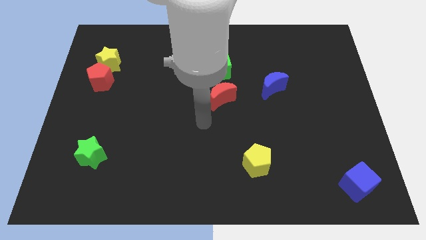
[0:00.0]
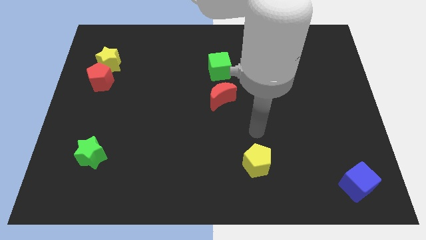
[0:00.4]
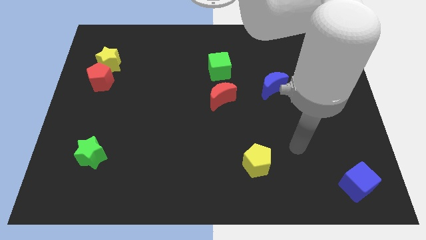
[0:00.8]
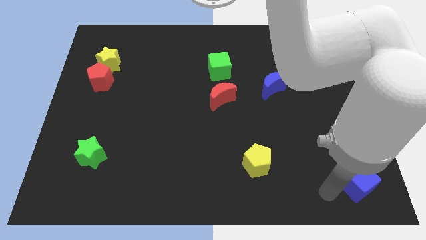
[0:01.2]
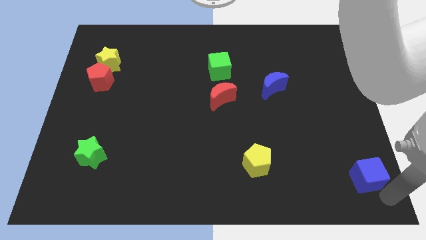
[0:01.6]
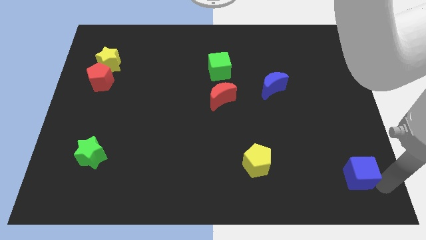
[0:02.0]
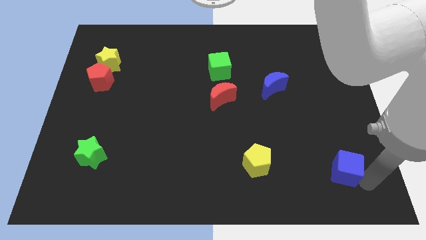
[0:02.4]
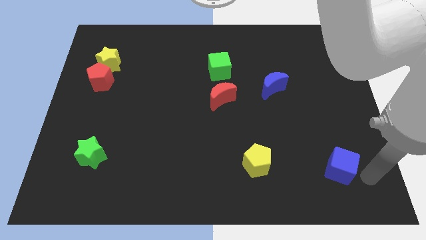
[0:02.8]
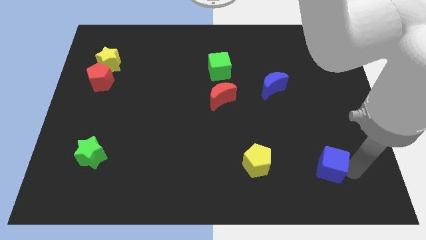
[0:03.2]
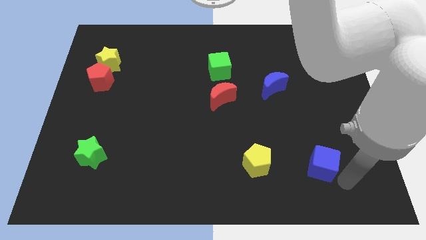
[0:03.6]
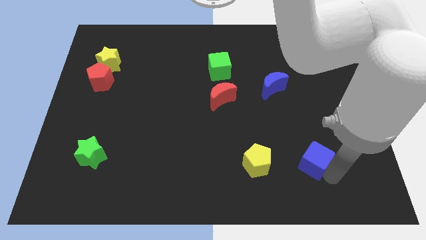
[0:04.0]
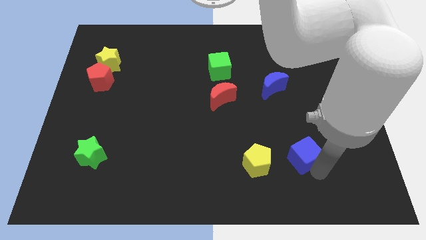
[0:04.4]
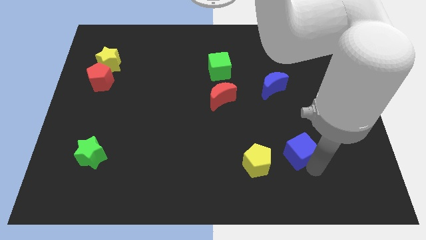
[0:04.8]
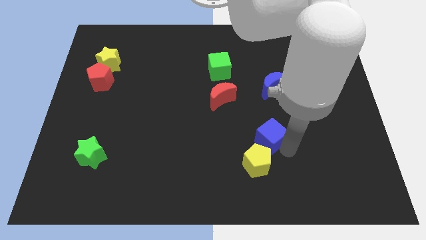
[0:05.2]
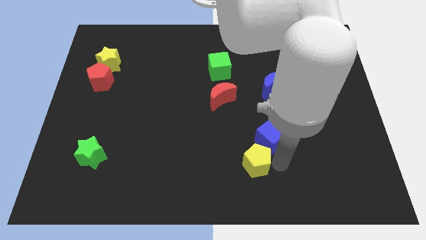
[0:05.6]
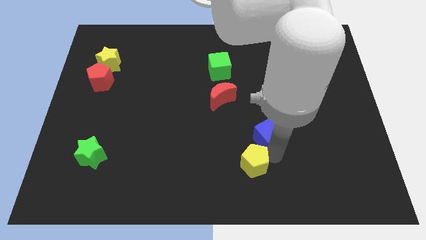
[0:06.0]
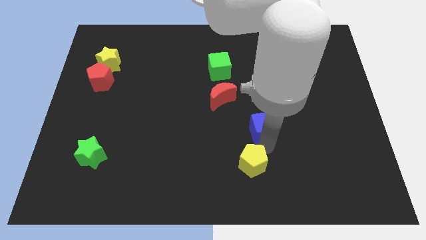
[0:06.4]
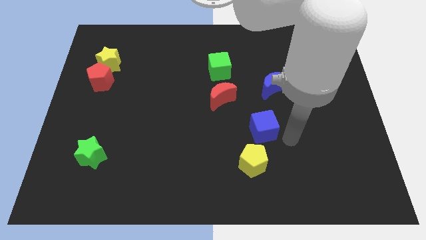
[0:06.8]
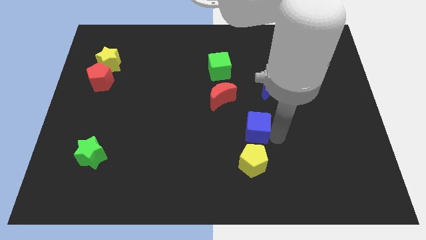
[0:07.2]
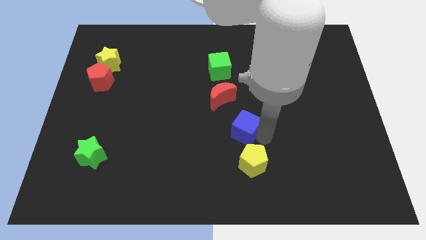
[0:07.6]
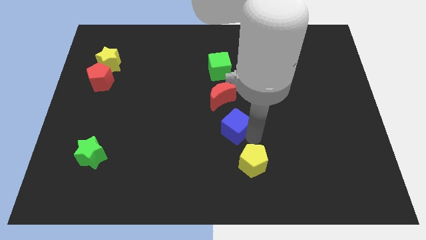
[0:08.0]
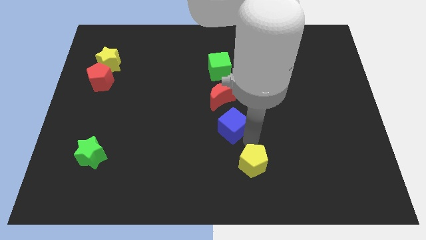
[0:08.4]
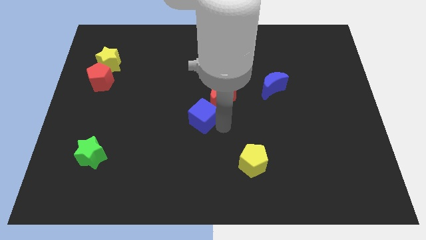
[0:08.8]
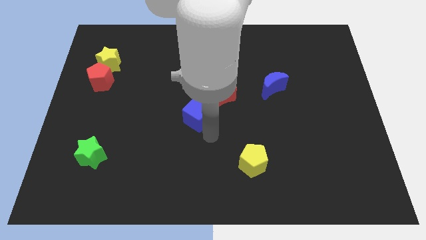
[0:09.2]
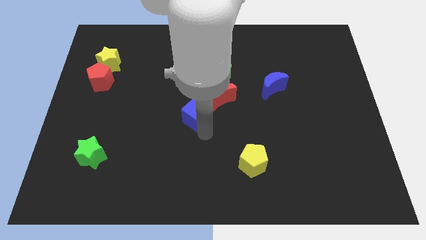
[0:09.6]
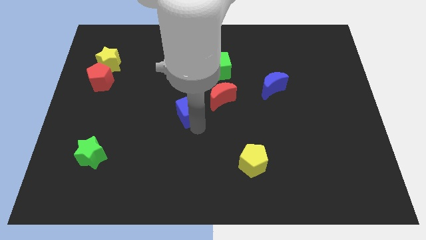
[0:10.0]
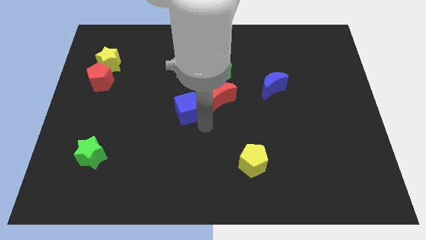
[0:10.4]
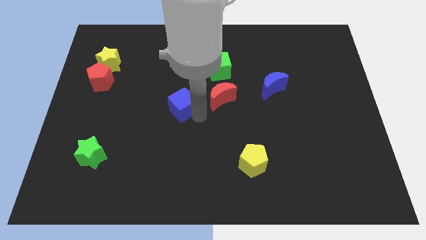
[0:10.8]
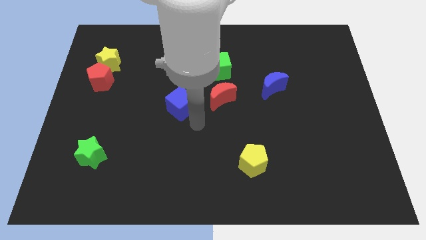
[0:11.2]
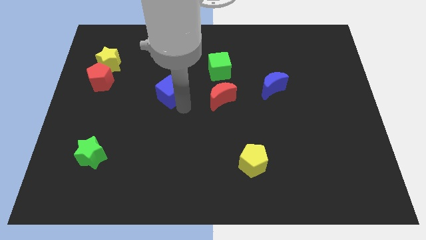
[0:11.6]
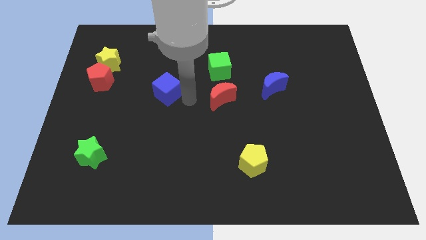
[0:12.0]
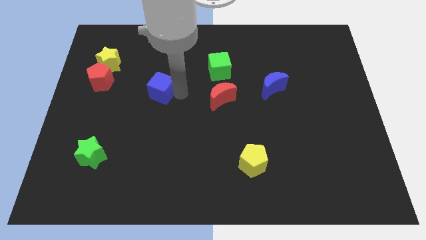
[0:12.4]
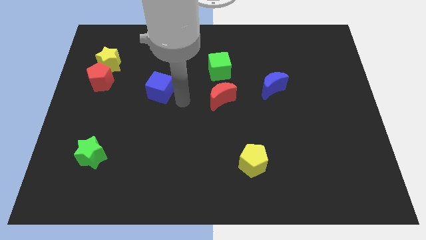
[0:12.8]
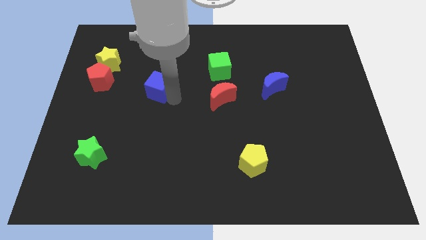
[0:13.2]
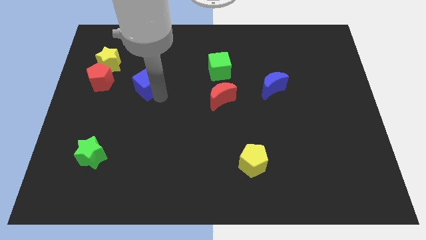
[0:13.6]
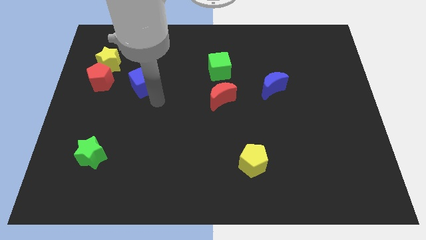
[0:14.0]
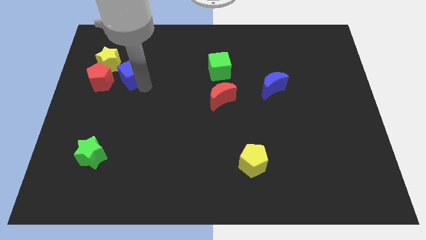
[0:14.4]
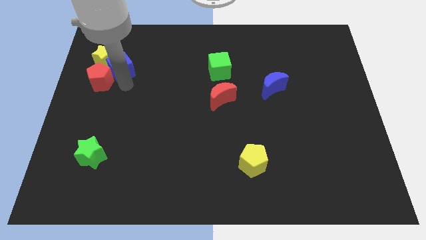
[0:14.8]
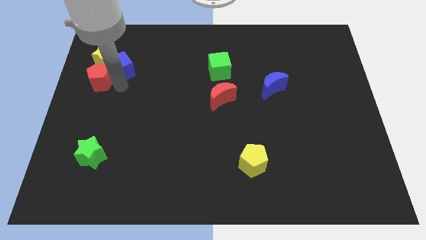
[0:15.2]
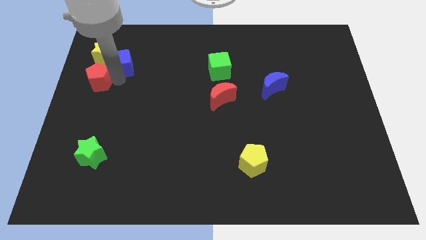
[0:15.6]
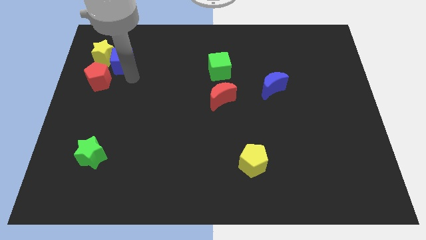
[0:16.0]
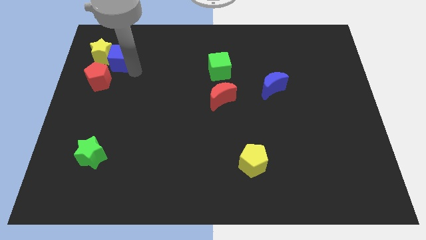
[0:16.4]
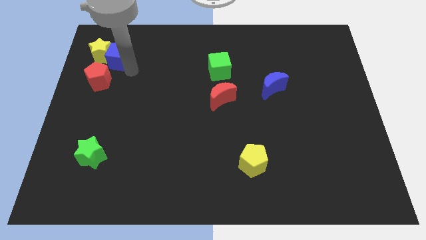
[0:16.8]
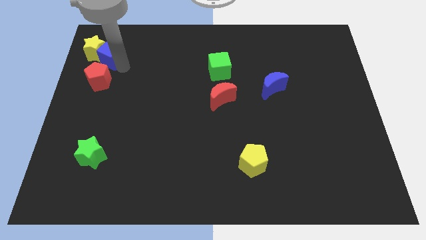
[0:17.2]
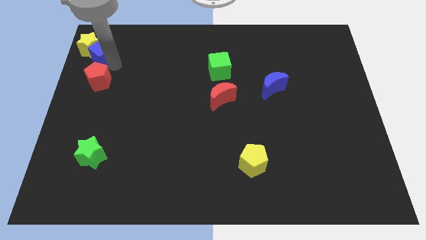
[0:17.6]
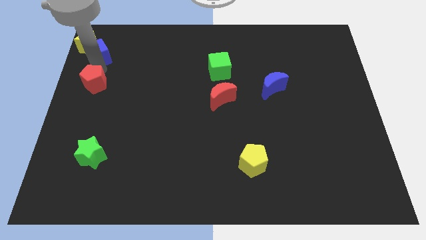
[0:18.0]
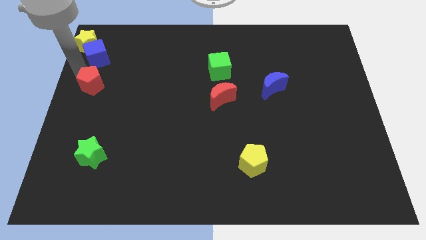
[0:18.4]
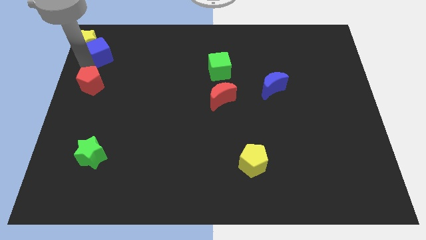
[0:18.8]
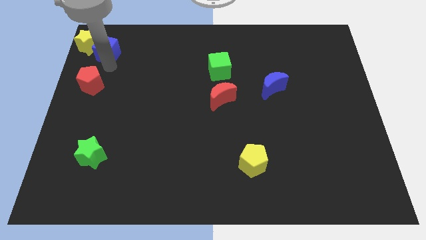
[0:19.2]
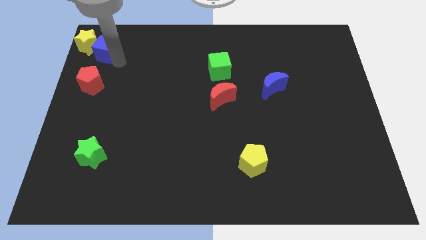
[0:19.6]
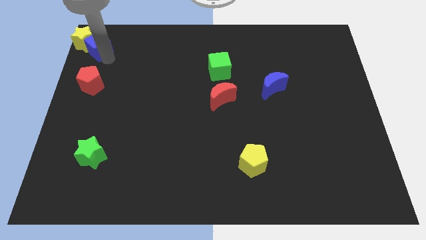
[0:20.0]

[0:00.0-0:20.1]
move the blue cube to the top left corner

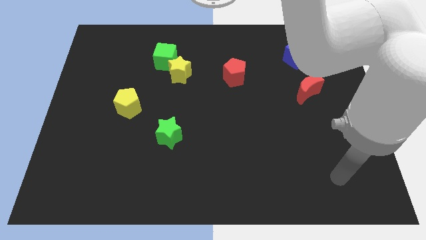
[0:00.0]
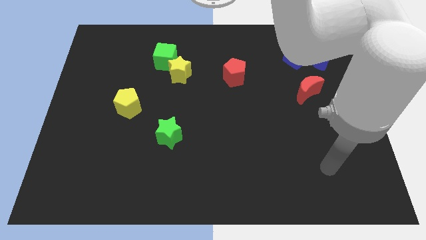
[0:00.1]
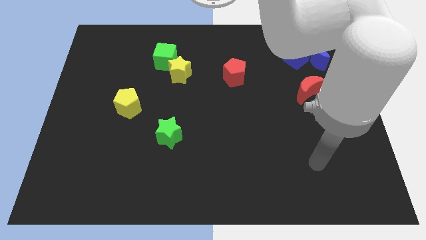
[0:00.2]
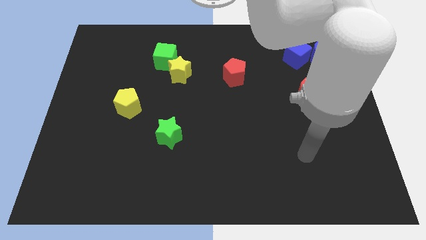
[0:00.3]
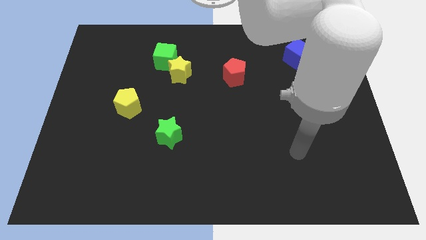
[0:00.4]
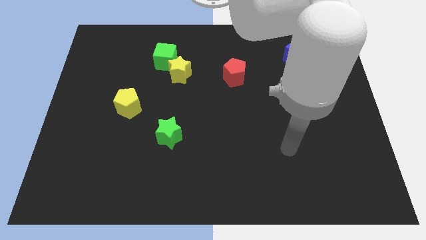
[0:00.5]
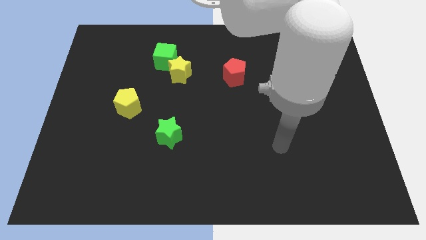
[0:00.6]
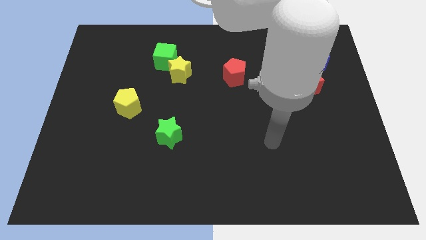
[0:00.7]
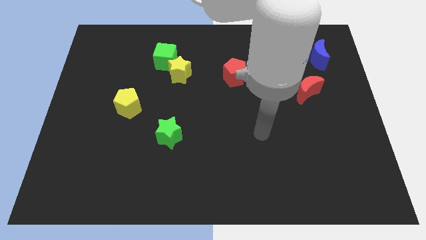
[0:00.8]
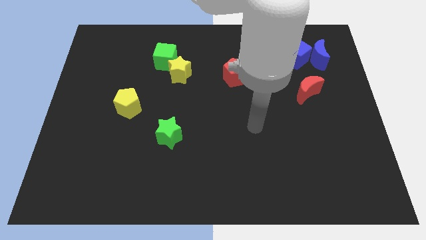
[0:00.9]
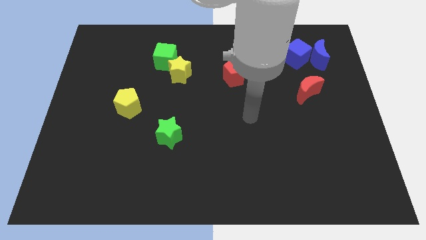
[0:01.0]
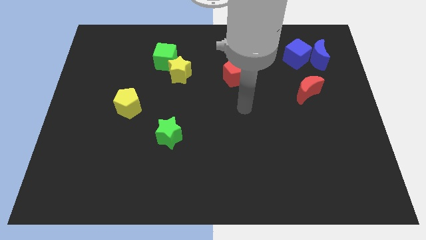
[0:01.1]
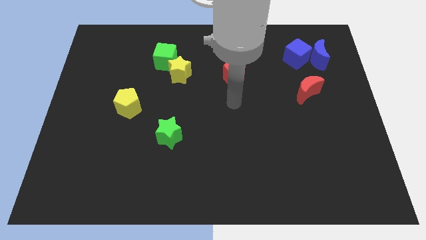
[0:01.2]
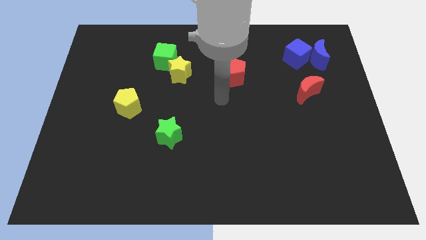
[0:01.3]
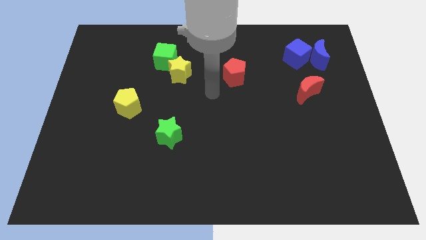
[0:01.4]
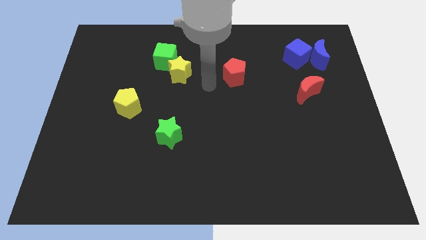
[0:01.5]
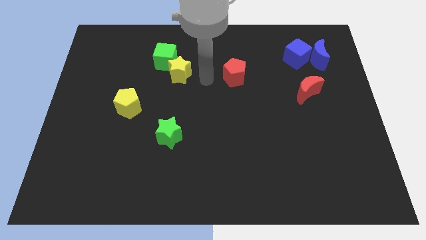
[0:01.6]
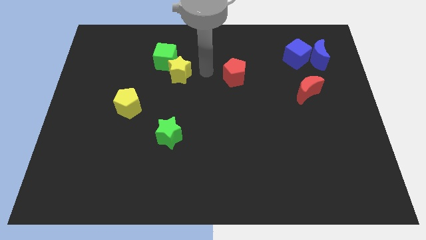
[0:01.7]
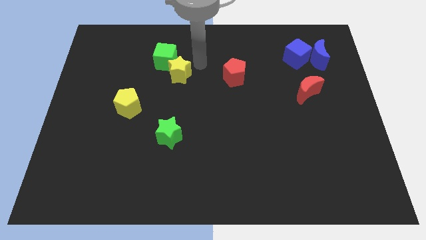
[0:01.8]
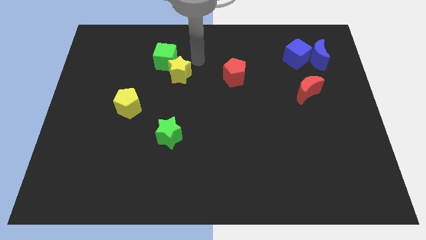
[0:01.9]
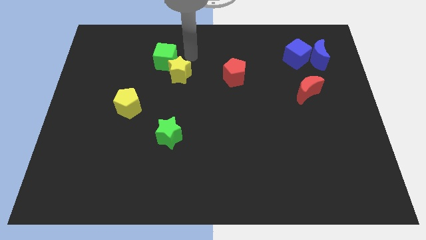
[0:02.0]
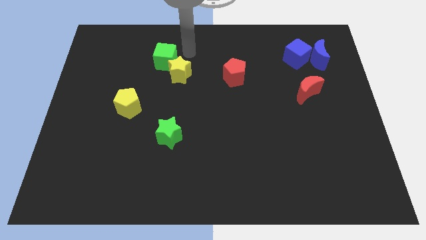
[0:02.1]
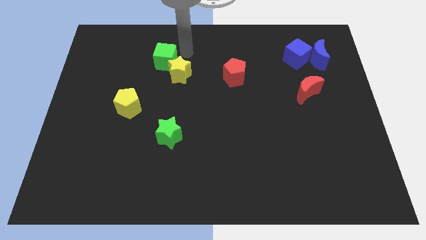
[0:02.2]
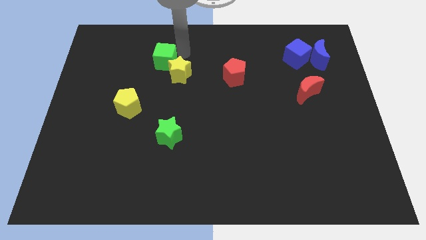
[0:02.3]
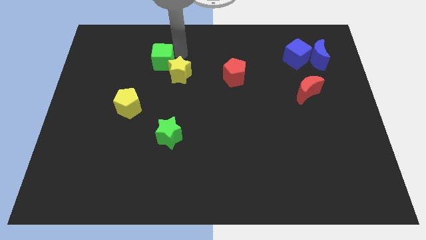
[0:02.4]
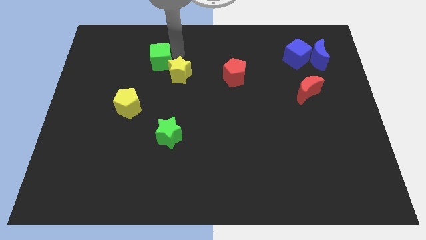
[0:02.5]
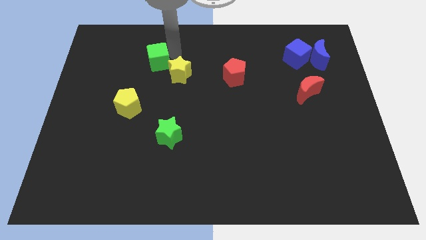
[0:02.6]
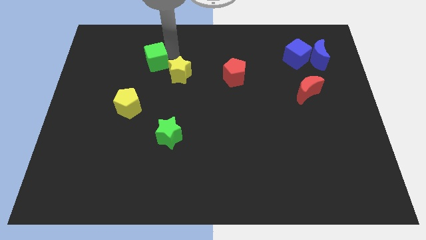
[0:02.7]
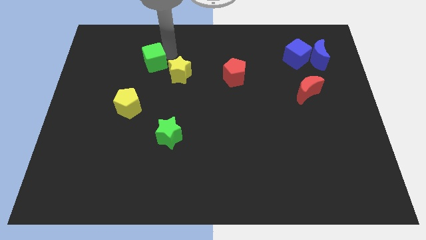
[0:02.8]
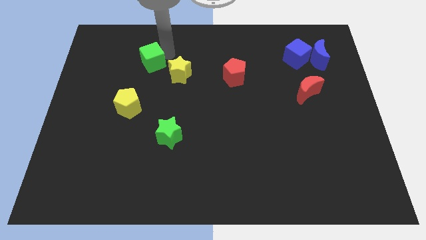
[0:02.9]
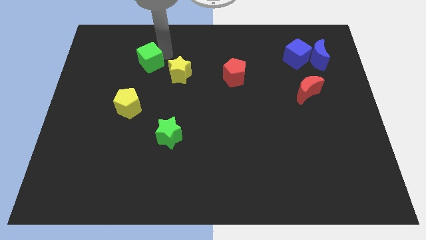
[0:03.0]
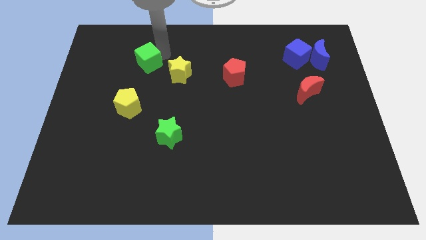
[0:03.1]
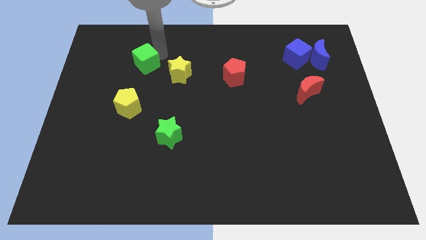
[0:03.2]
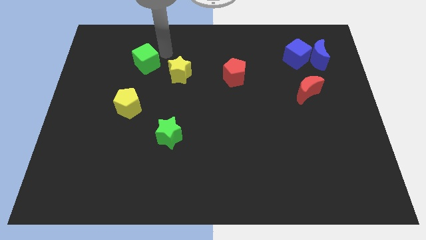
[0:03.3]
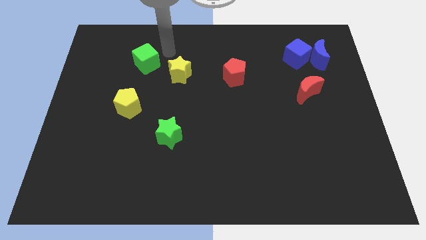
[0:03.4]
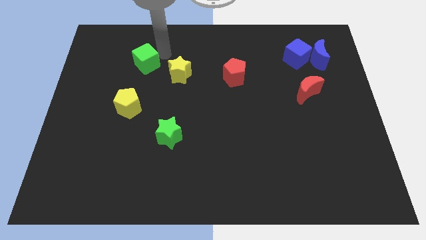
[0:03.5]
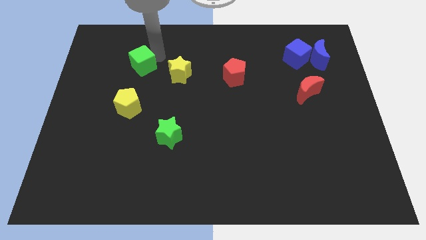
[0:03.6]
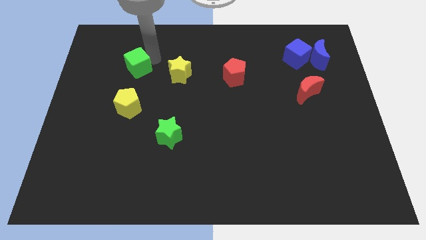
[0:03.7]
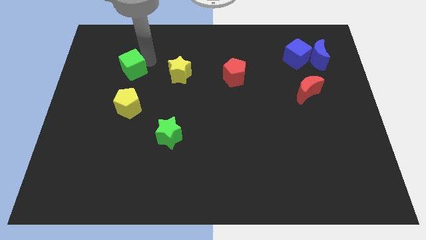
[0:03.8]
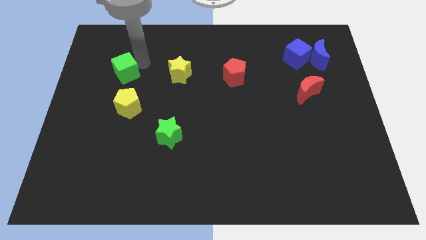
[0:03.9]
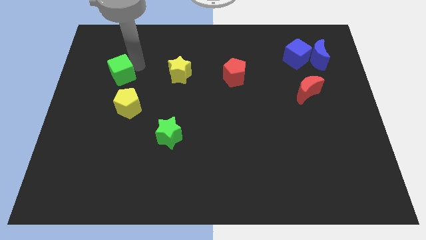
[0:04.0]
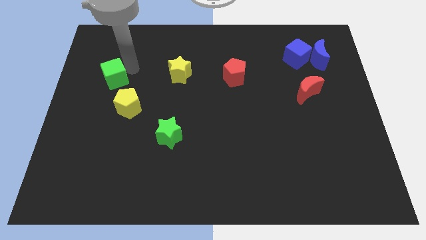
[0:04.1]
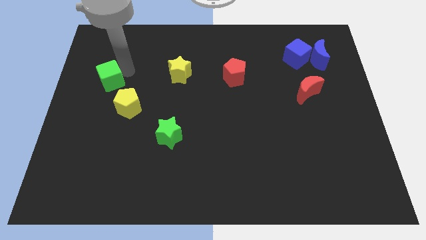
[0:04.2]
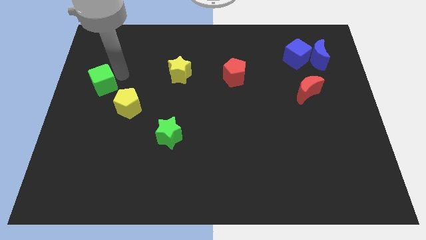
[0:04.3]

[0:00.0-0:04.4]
push the green cube to the center left
